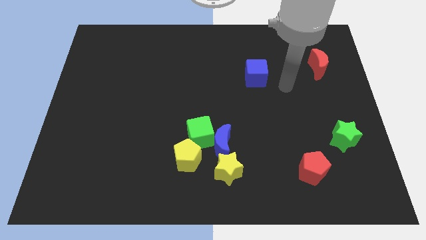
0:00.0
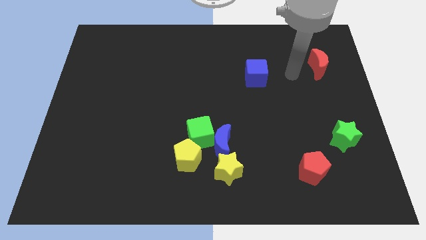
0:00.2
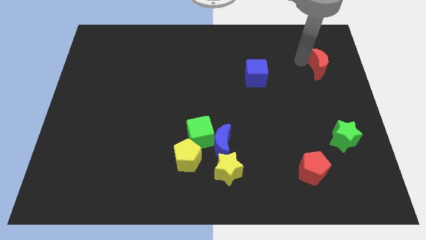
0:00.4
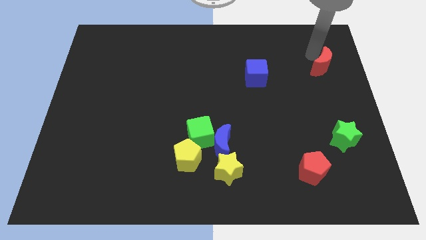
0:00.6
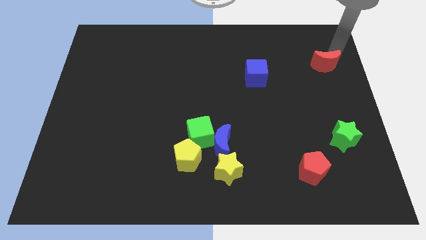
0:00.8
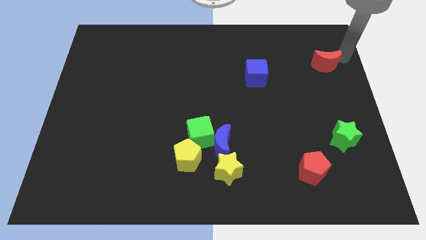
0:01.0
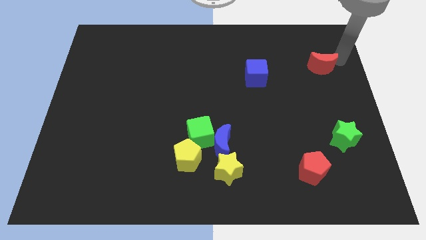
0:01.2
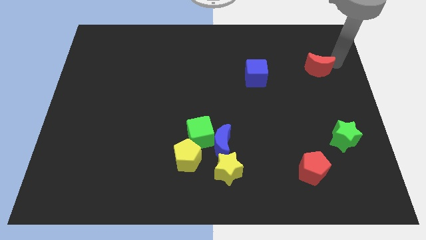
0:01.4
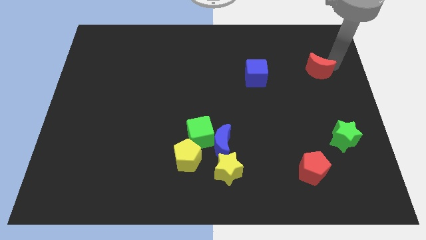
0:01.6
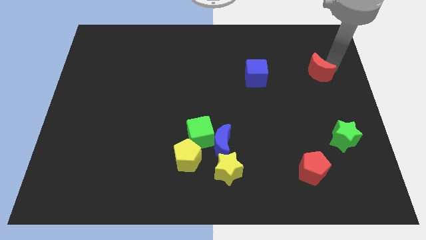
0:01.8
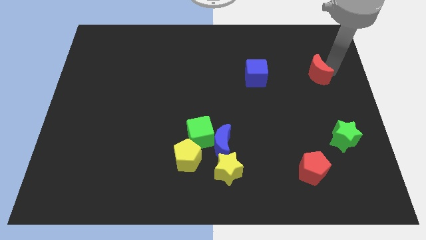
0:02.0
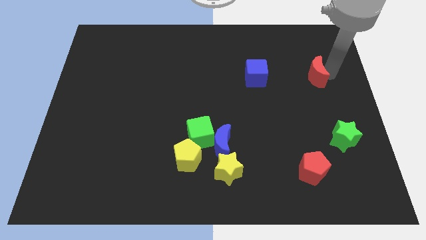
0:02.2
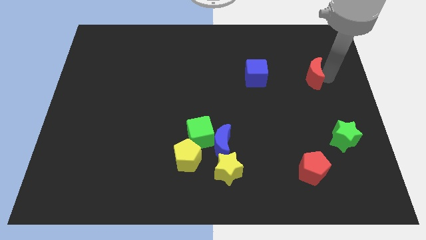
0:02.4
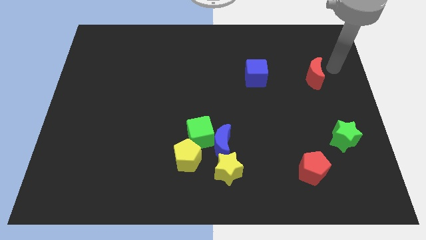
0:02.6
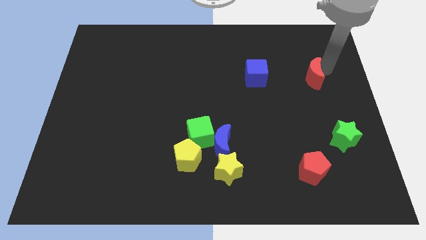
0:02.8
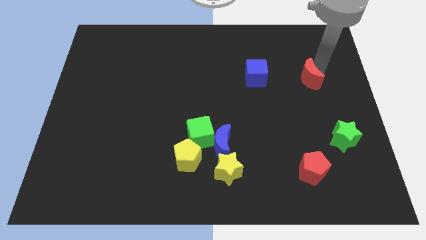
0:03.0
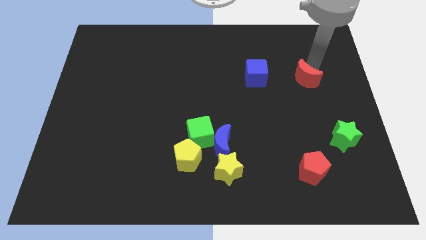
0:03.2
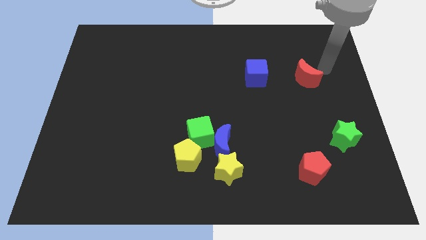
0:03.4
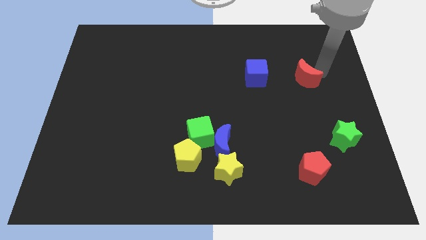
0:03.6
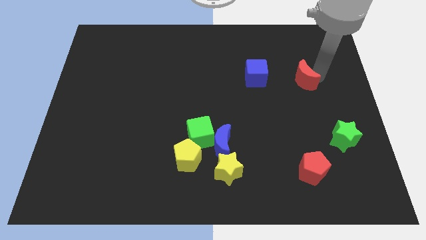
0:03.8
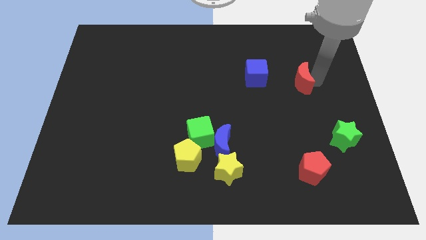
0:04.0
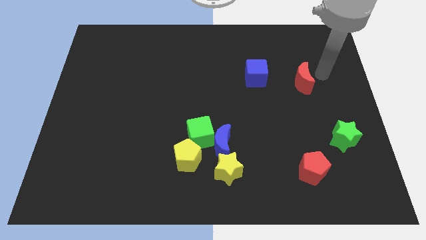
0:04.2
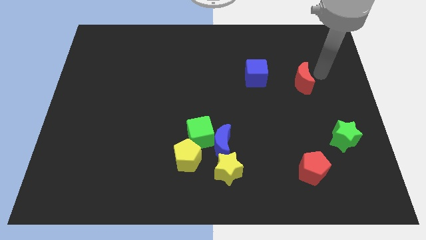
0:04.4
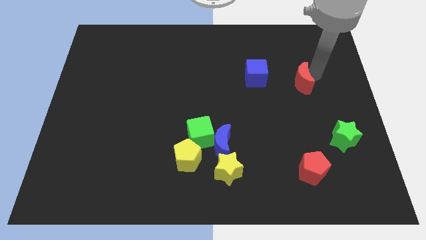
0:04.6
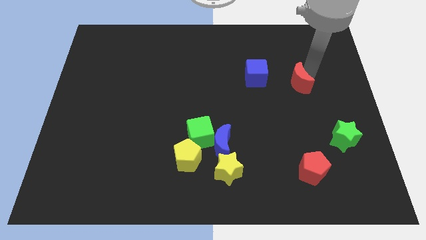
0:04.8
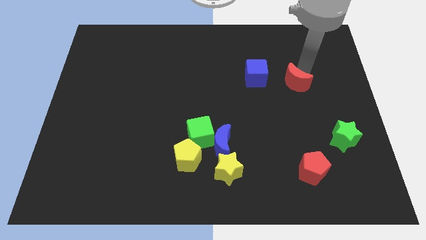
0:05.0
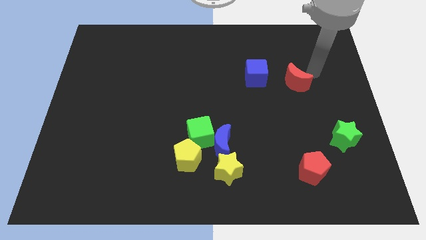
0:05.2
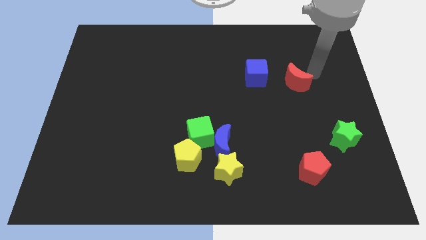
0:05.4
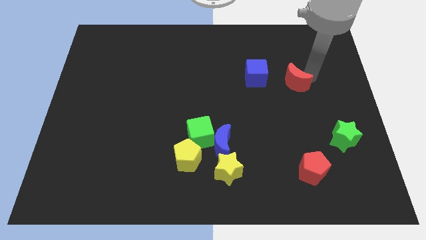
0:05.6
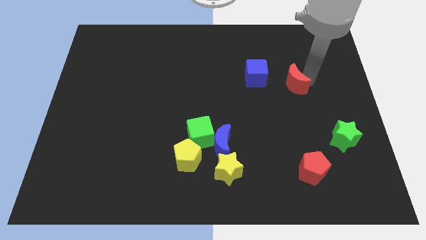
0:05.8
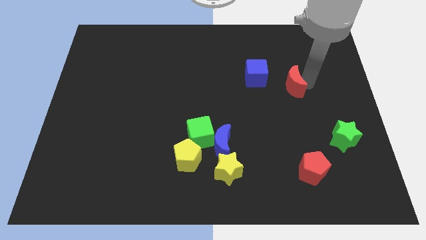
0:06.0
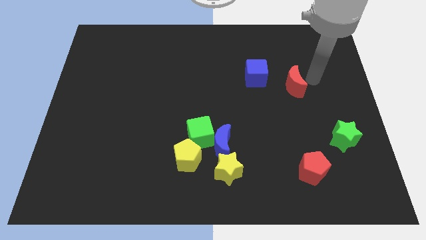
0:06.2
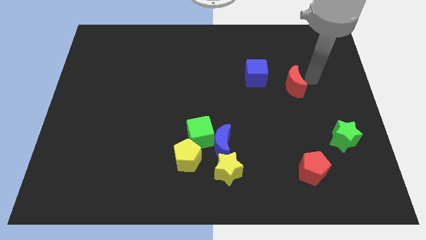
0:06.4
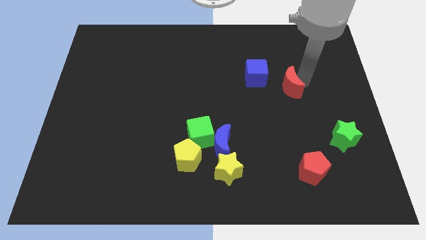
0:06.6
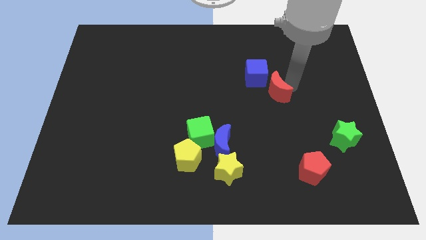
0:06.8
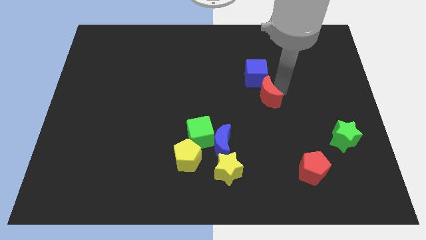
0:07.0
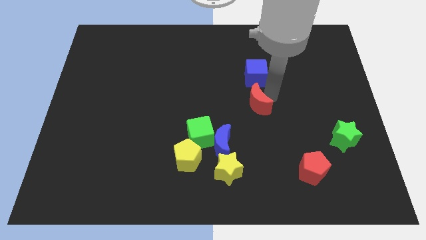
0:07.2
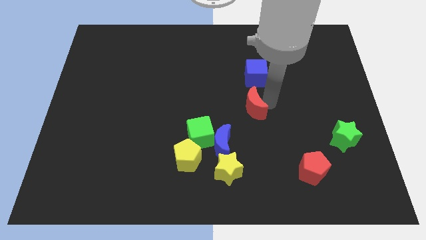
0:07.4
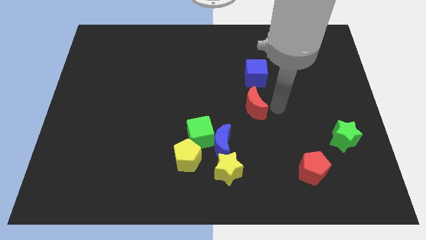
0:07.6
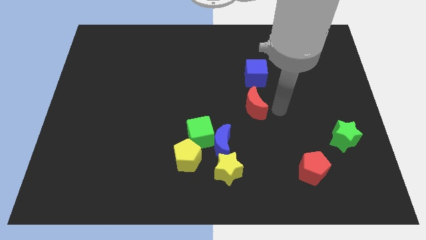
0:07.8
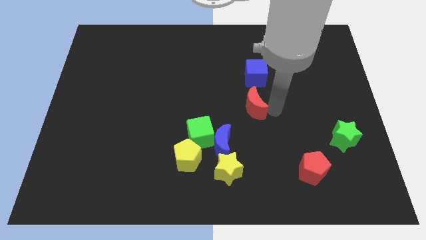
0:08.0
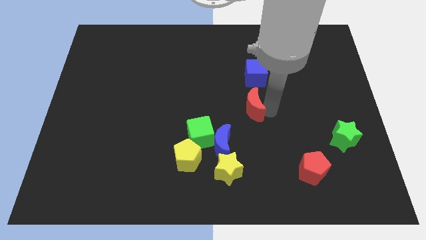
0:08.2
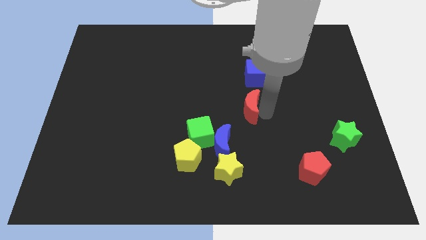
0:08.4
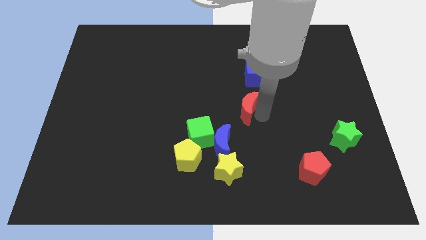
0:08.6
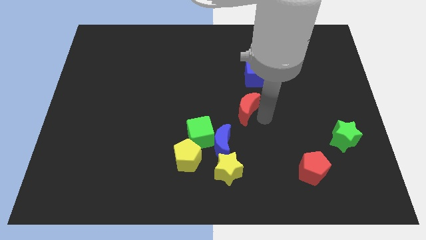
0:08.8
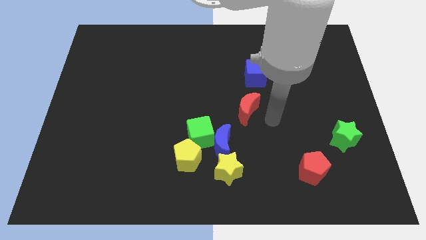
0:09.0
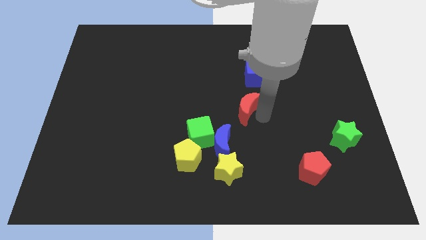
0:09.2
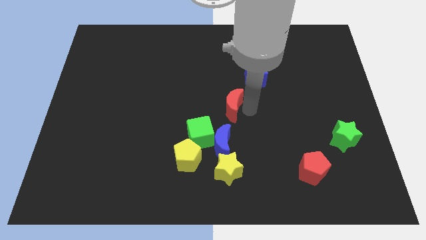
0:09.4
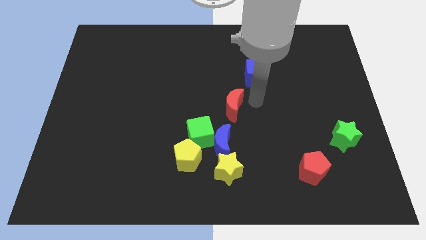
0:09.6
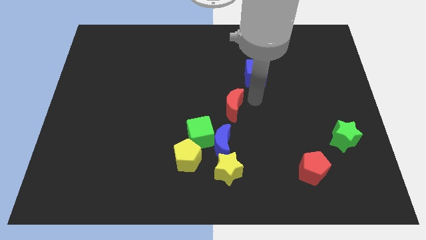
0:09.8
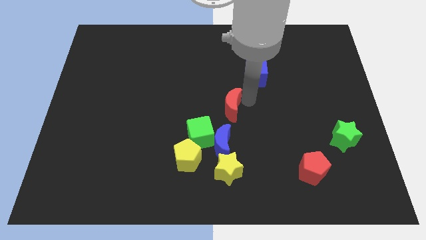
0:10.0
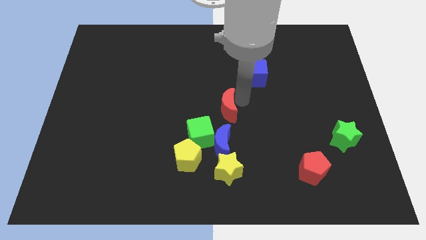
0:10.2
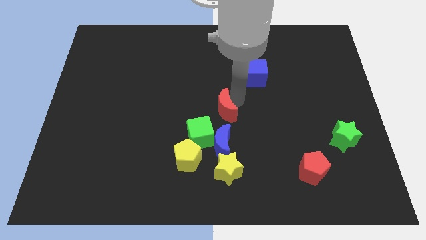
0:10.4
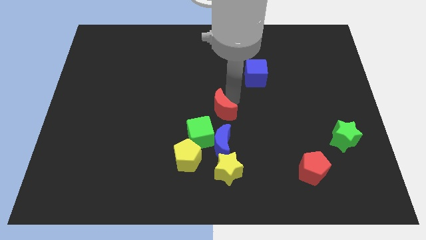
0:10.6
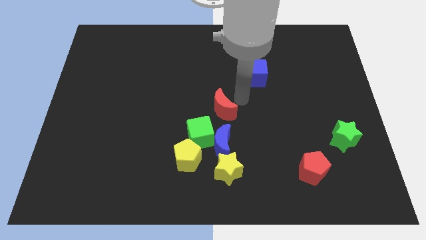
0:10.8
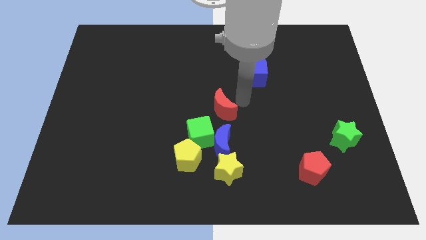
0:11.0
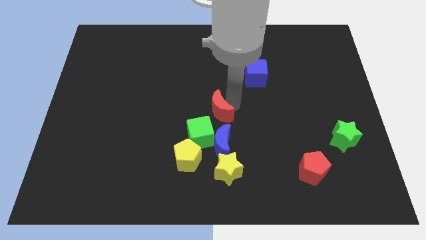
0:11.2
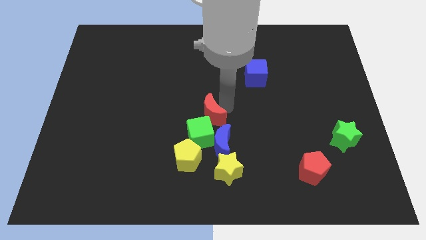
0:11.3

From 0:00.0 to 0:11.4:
slide the red moon to the top left of the blue moon
